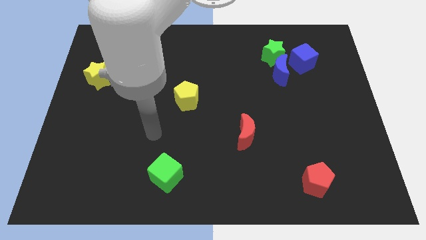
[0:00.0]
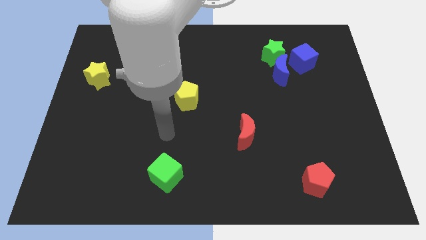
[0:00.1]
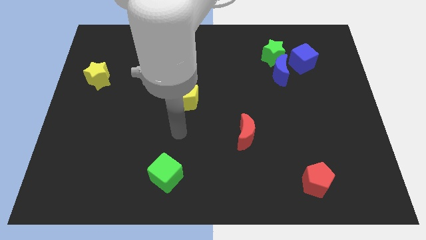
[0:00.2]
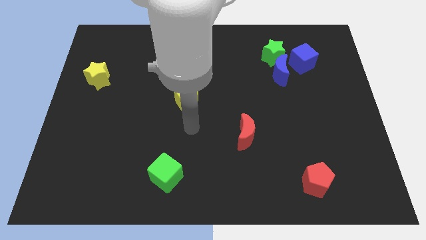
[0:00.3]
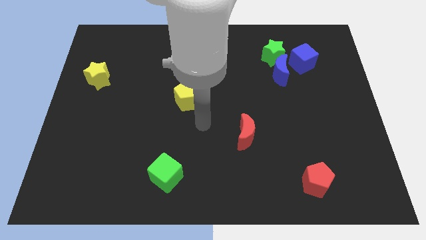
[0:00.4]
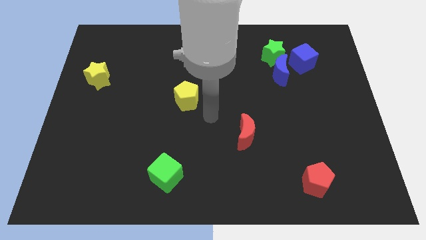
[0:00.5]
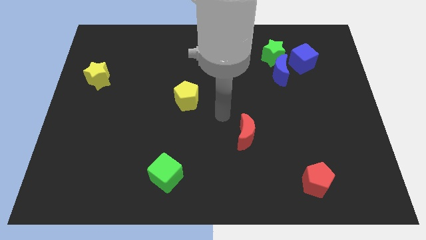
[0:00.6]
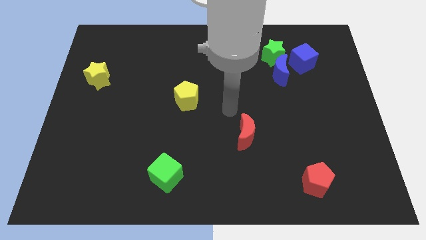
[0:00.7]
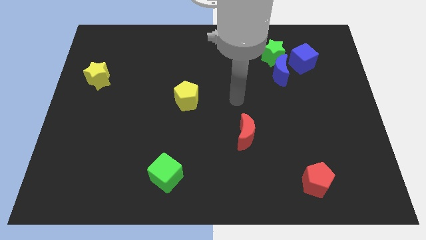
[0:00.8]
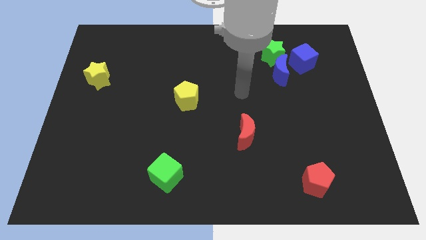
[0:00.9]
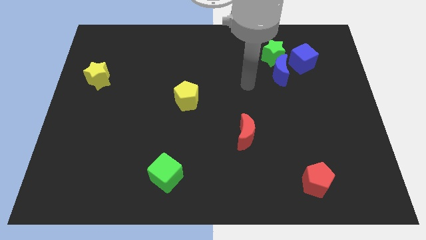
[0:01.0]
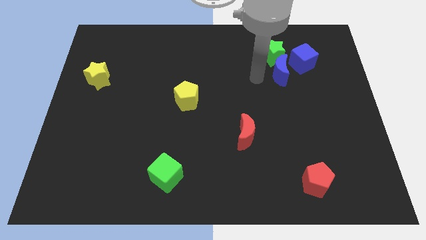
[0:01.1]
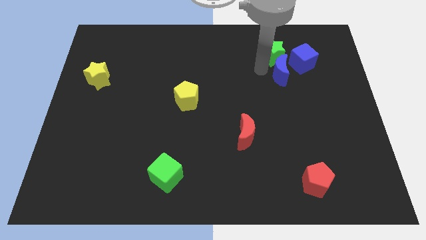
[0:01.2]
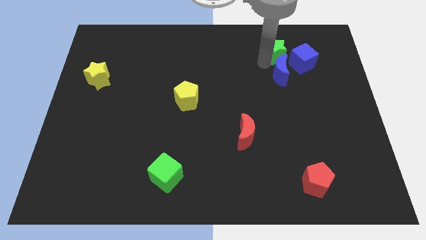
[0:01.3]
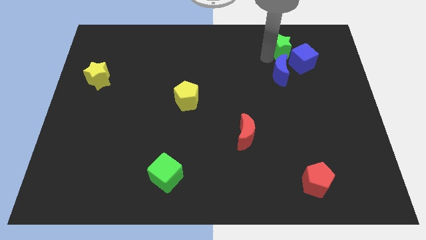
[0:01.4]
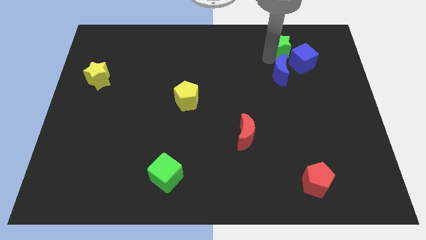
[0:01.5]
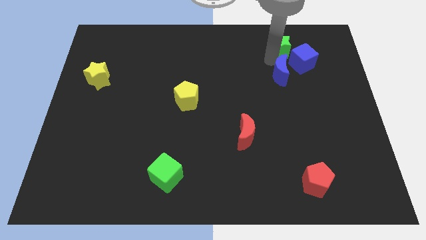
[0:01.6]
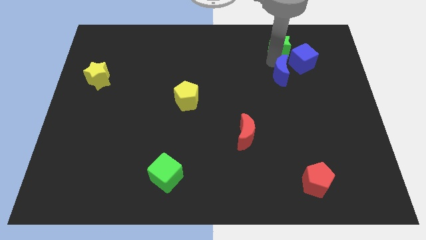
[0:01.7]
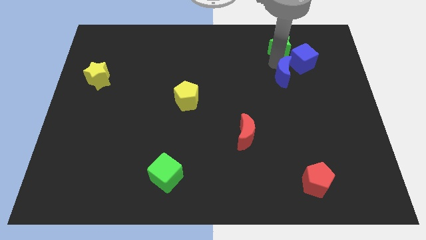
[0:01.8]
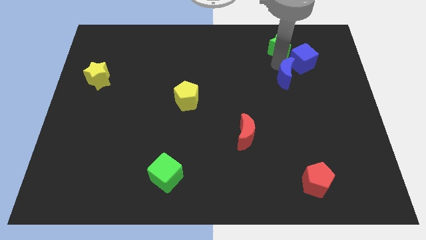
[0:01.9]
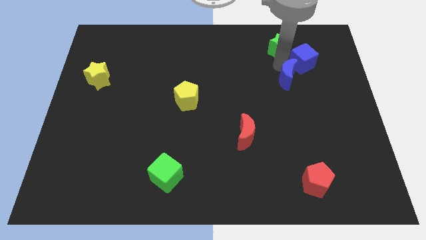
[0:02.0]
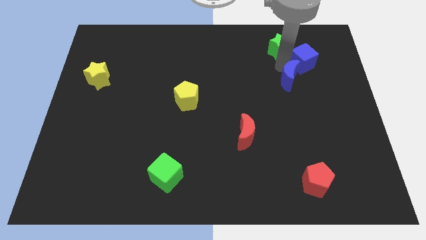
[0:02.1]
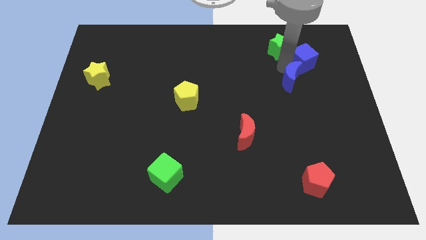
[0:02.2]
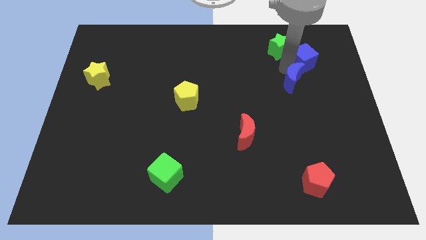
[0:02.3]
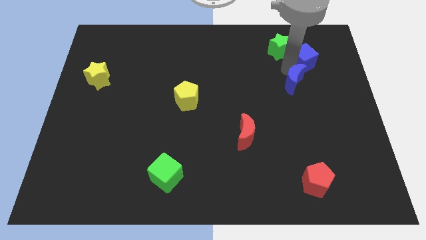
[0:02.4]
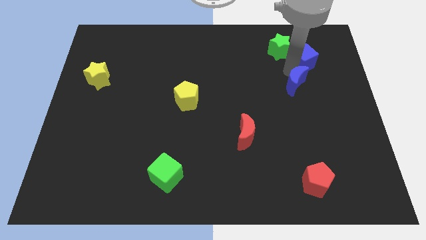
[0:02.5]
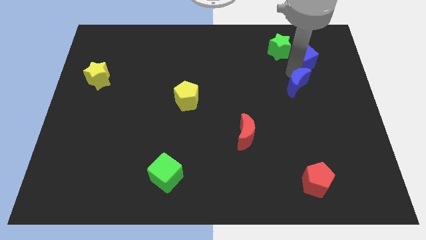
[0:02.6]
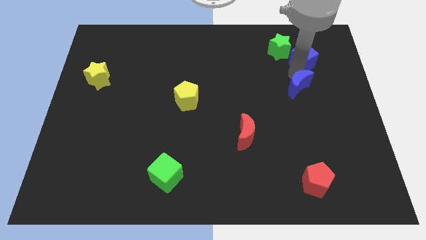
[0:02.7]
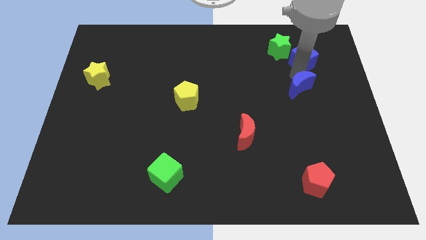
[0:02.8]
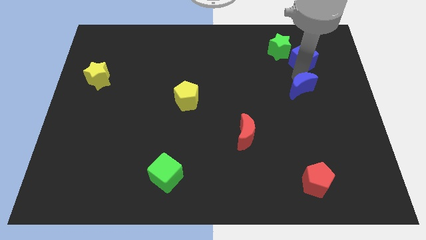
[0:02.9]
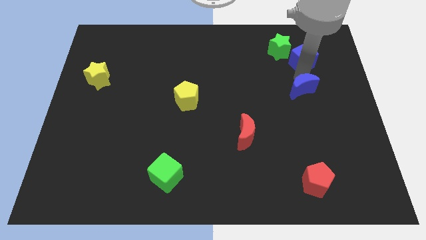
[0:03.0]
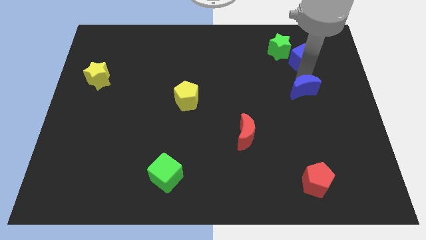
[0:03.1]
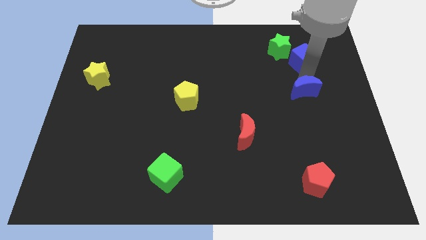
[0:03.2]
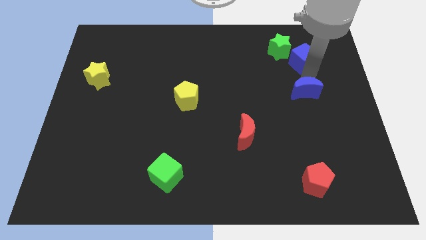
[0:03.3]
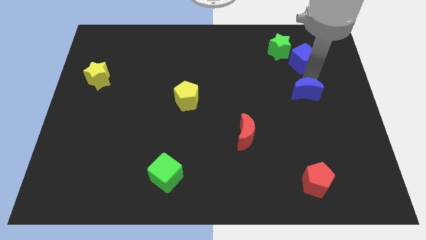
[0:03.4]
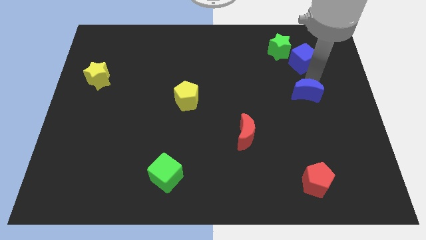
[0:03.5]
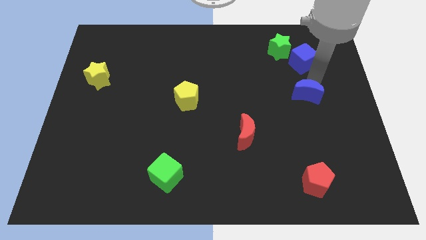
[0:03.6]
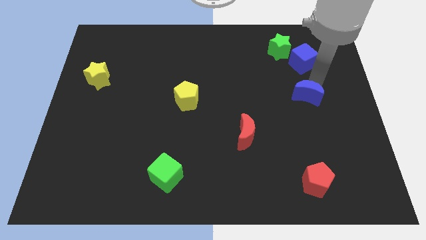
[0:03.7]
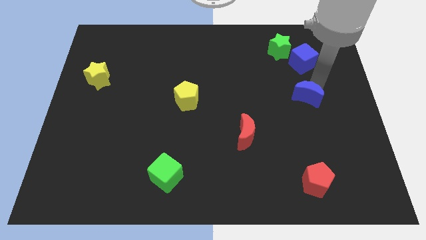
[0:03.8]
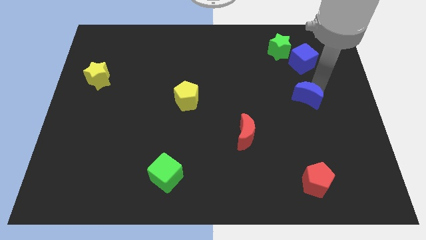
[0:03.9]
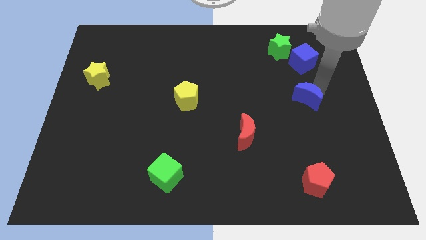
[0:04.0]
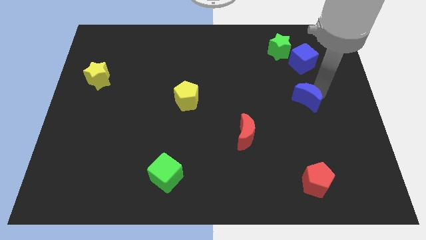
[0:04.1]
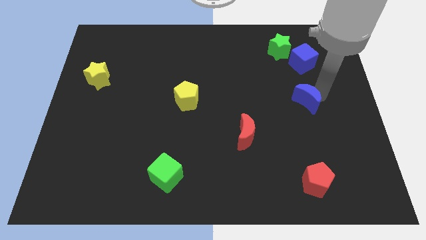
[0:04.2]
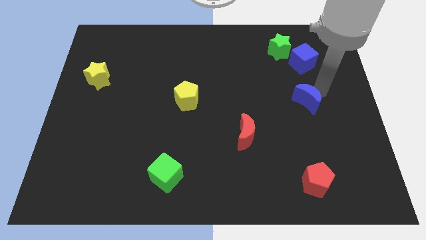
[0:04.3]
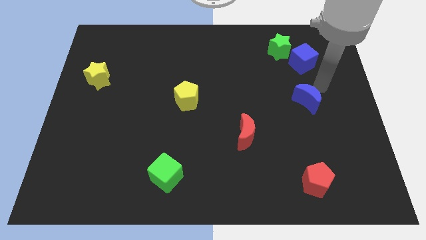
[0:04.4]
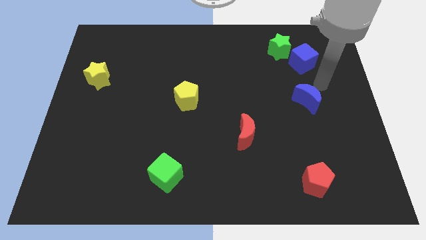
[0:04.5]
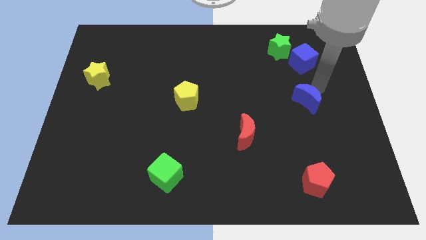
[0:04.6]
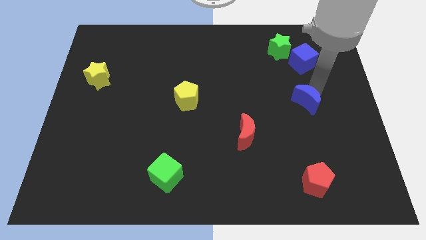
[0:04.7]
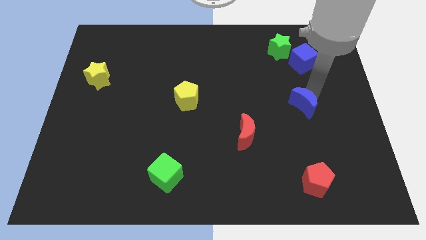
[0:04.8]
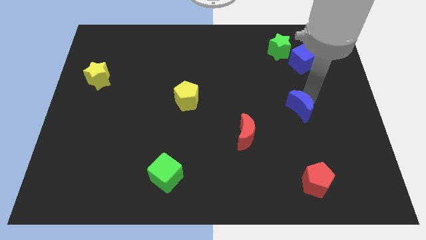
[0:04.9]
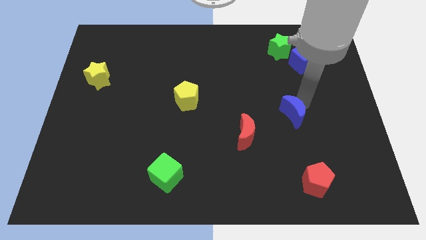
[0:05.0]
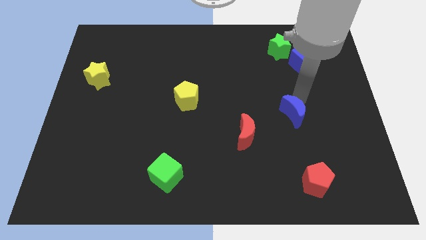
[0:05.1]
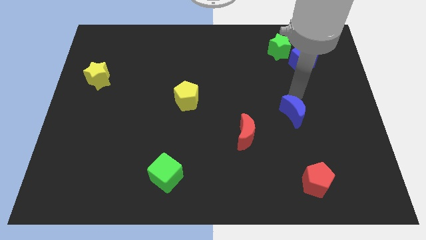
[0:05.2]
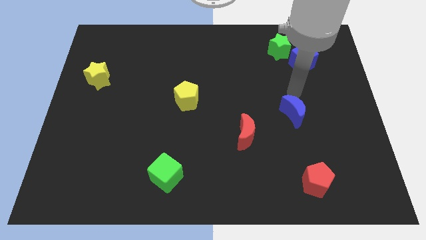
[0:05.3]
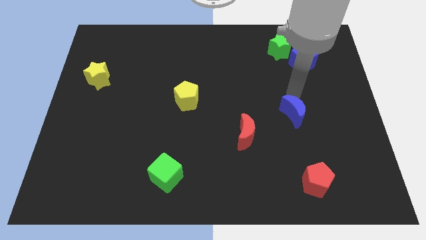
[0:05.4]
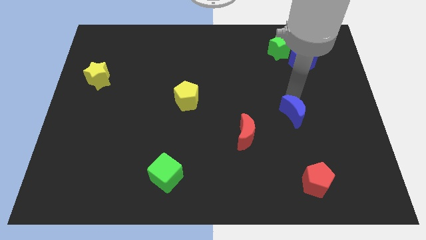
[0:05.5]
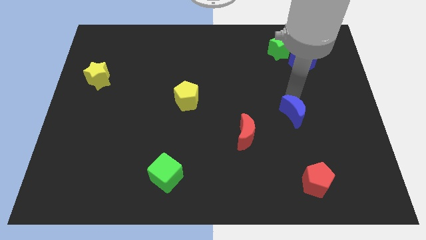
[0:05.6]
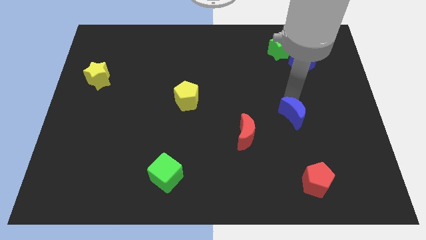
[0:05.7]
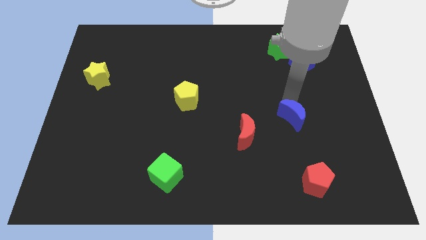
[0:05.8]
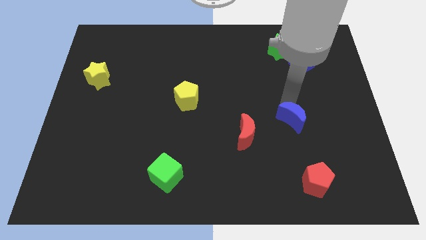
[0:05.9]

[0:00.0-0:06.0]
slide the blue moon to the right of the red moon

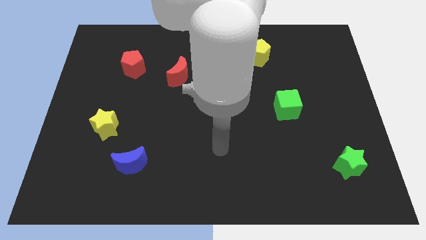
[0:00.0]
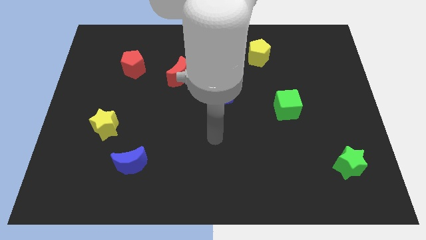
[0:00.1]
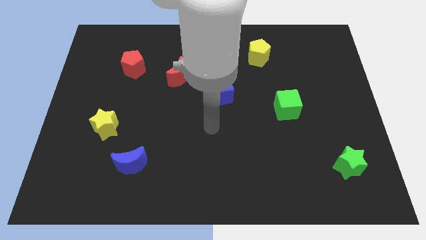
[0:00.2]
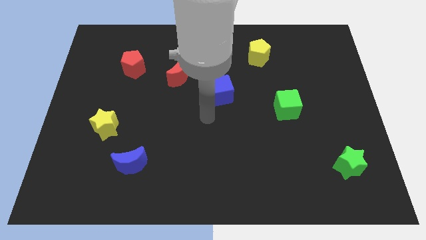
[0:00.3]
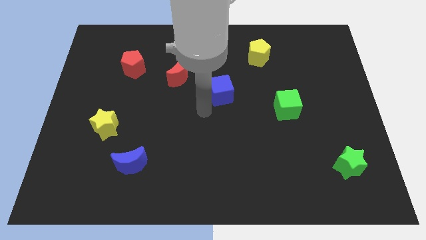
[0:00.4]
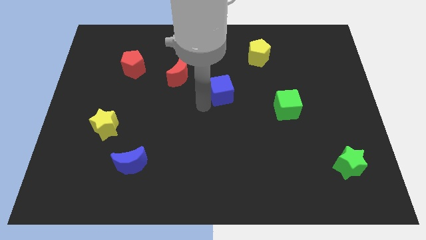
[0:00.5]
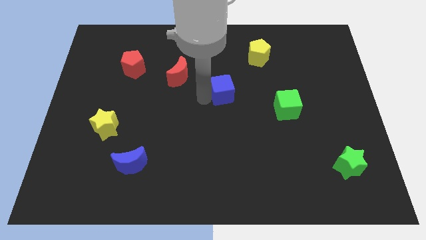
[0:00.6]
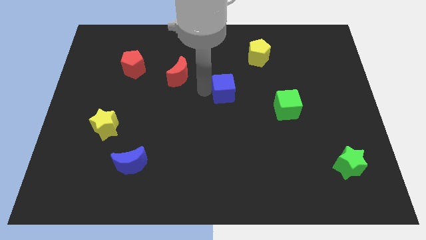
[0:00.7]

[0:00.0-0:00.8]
slide the red moon left of the blue cube

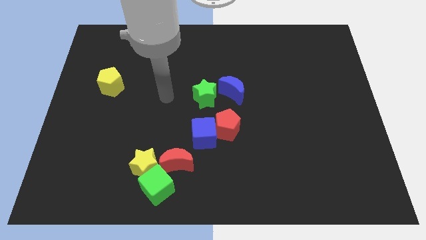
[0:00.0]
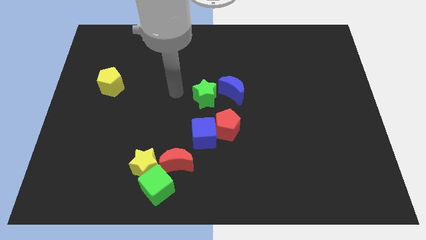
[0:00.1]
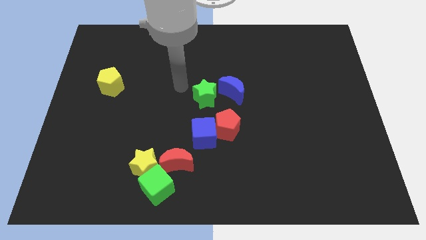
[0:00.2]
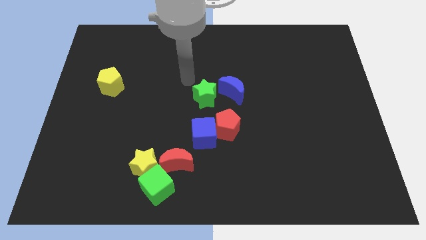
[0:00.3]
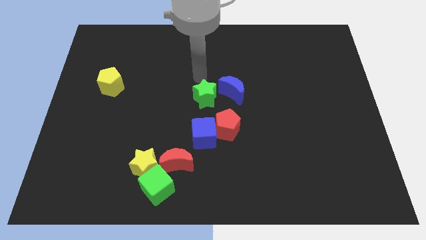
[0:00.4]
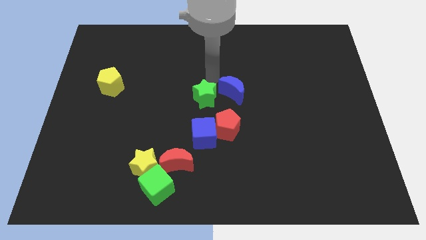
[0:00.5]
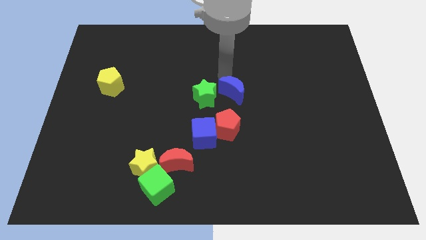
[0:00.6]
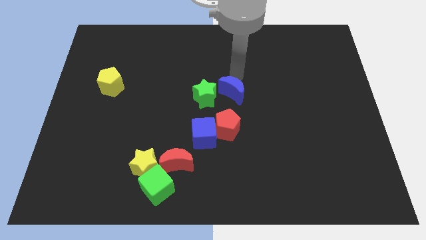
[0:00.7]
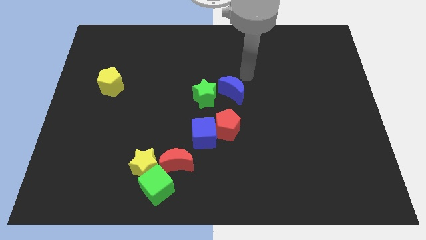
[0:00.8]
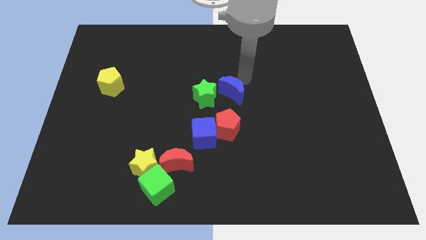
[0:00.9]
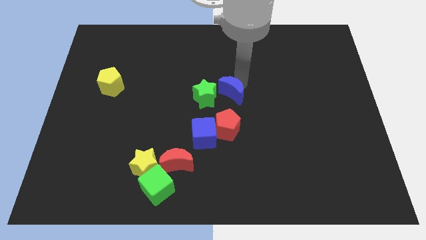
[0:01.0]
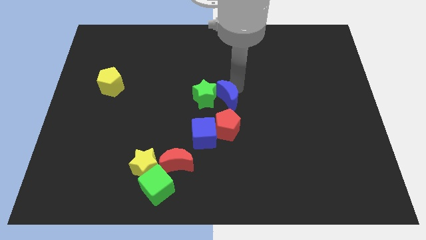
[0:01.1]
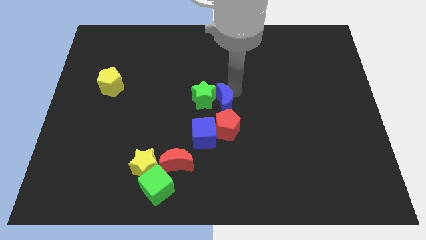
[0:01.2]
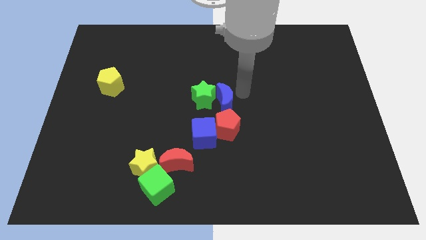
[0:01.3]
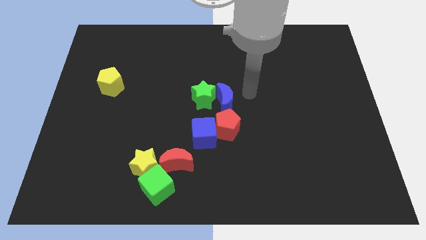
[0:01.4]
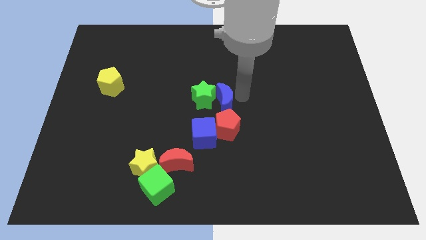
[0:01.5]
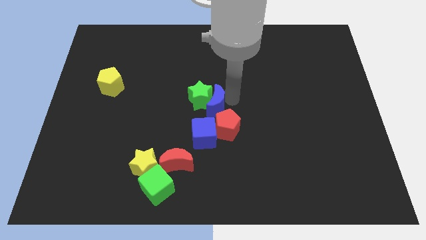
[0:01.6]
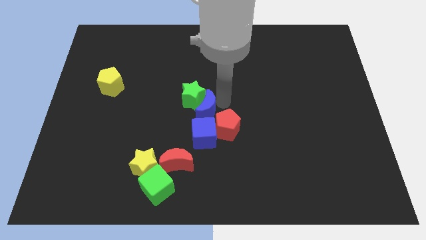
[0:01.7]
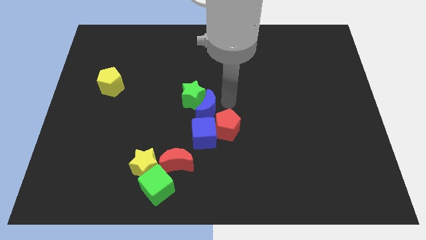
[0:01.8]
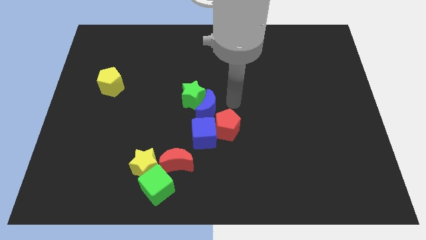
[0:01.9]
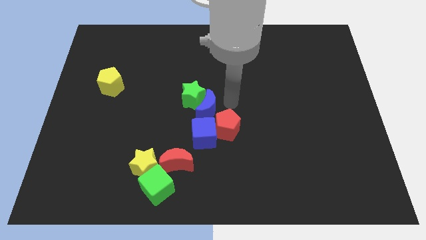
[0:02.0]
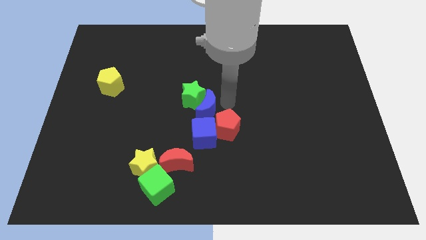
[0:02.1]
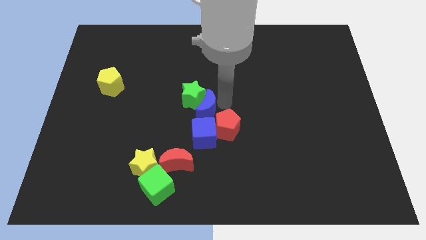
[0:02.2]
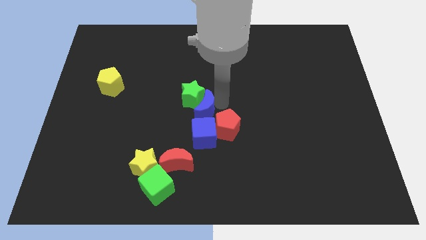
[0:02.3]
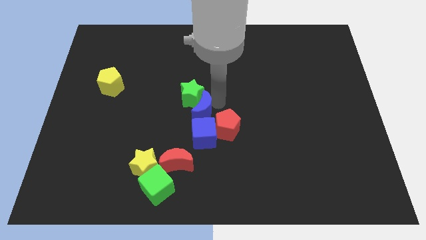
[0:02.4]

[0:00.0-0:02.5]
slide the blue moon to the top left of the blue cube
